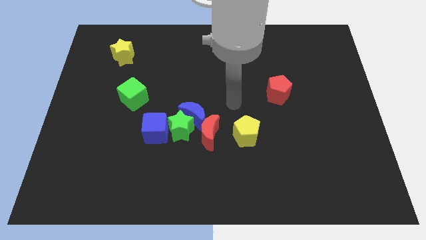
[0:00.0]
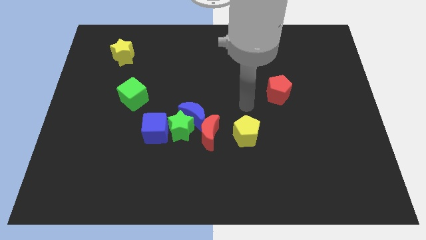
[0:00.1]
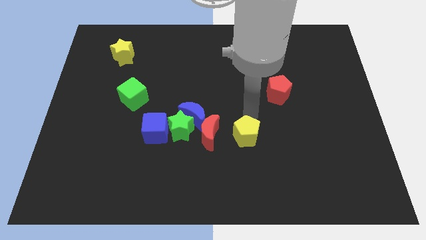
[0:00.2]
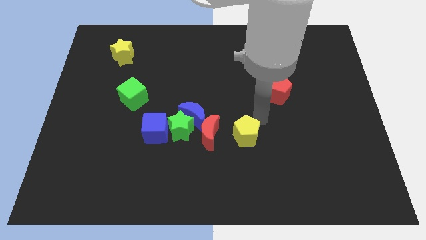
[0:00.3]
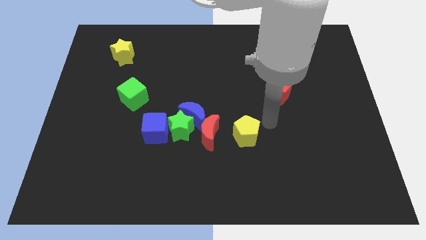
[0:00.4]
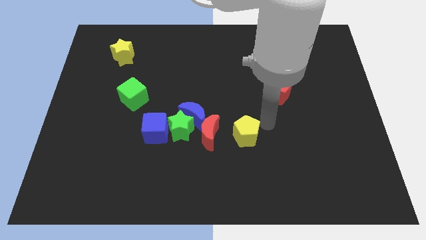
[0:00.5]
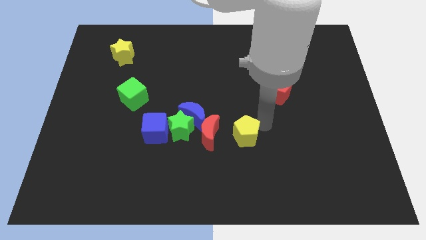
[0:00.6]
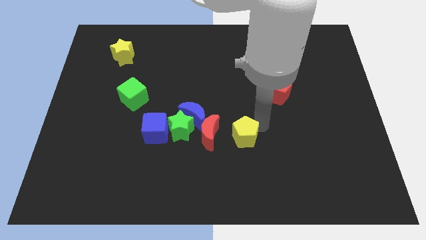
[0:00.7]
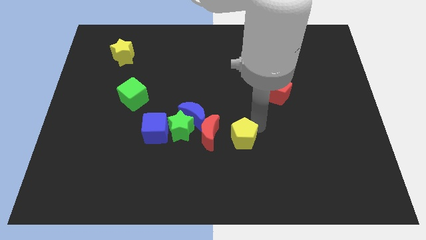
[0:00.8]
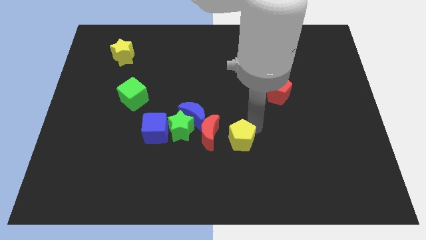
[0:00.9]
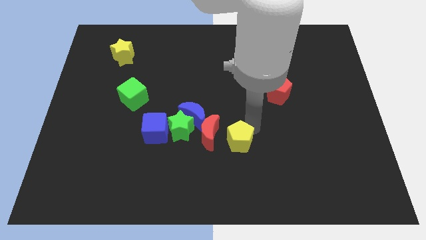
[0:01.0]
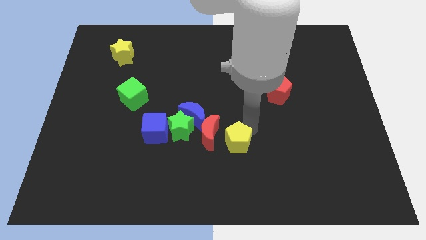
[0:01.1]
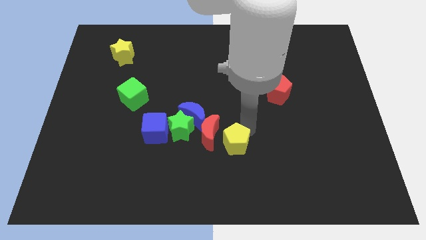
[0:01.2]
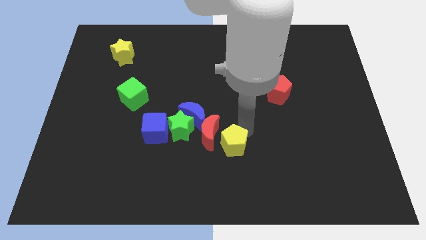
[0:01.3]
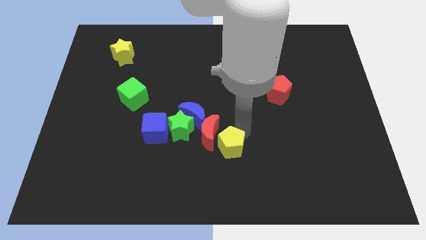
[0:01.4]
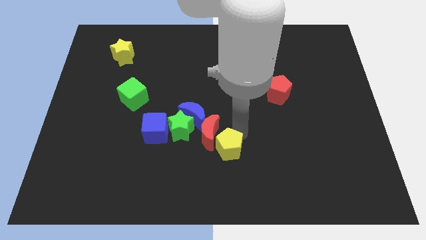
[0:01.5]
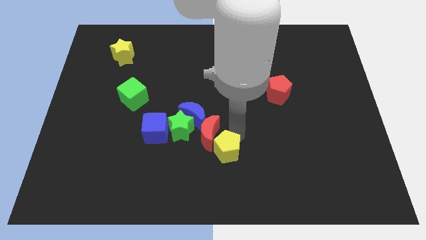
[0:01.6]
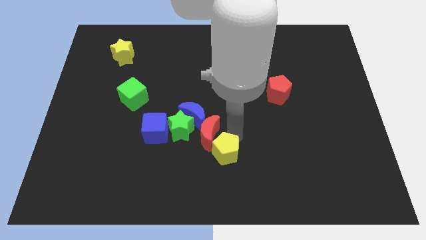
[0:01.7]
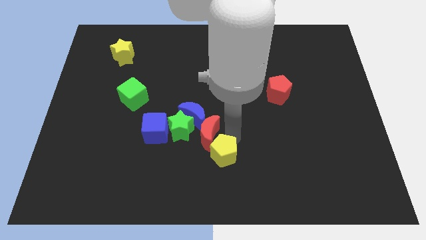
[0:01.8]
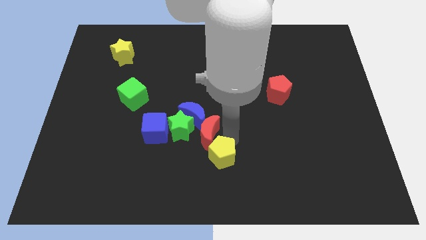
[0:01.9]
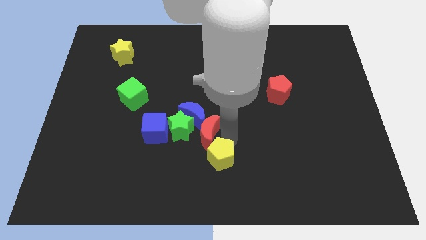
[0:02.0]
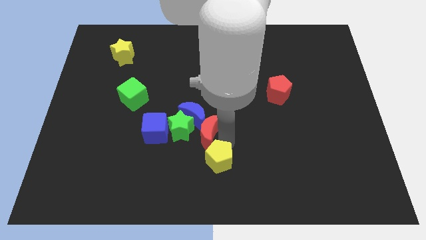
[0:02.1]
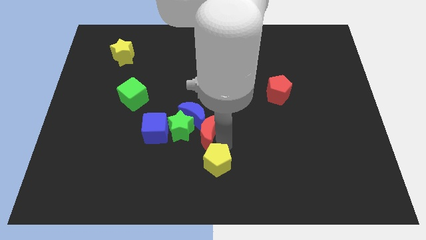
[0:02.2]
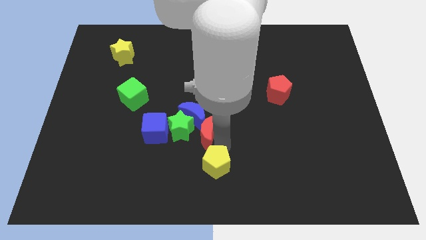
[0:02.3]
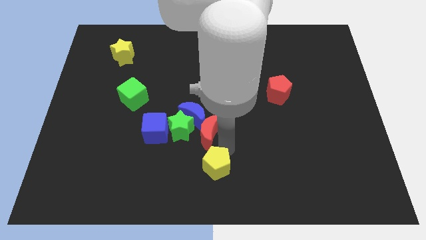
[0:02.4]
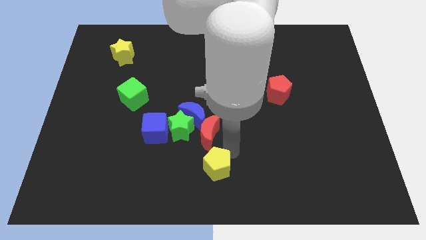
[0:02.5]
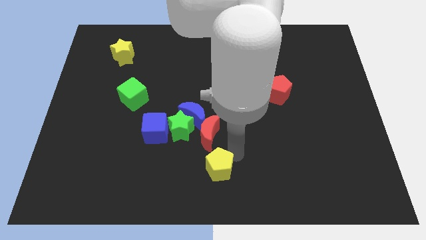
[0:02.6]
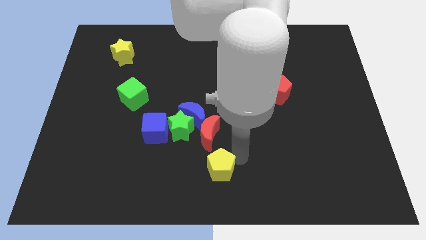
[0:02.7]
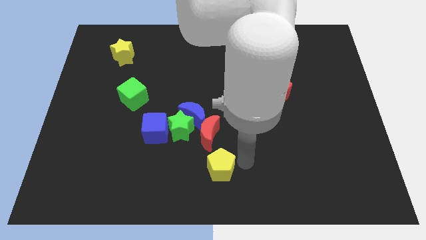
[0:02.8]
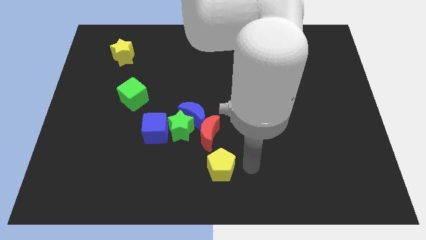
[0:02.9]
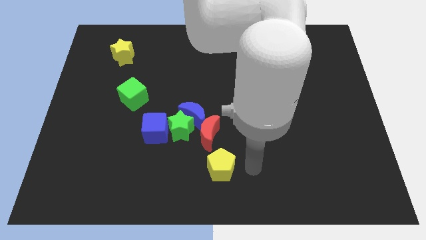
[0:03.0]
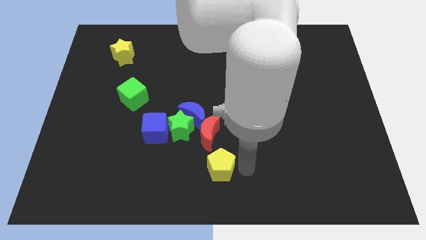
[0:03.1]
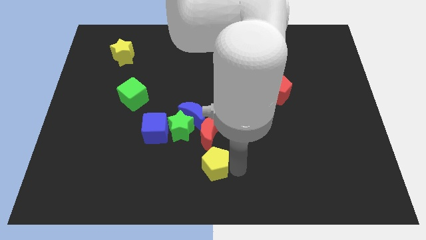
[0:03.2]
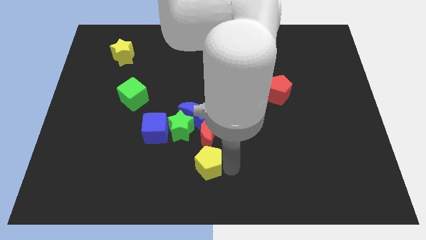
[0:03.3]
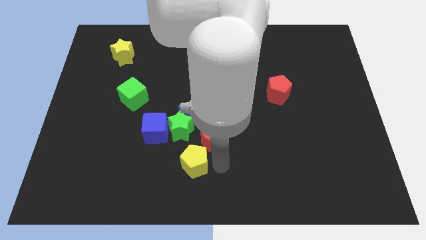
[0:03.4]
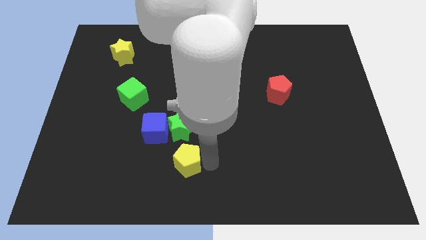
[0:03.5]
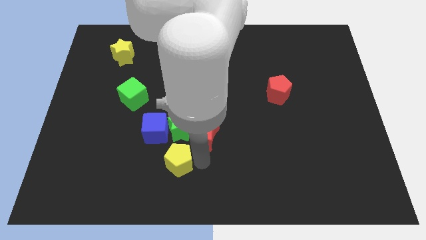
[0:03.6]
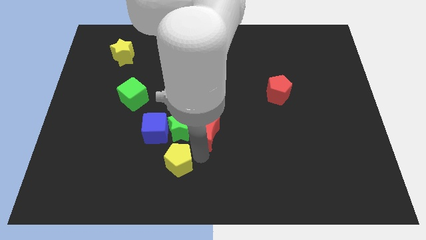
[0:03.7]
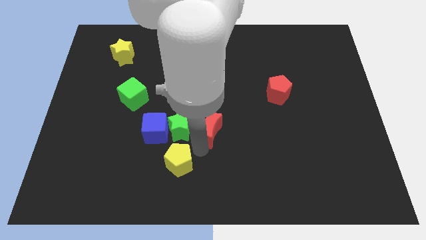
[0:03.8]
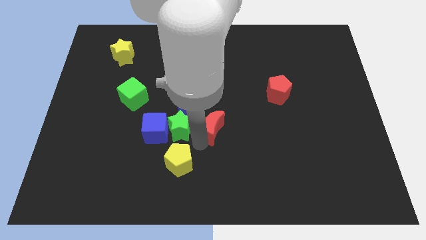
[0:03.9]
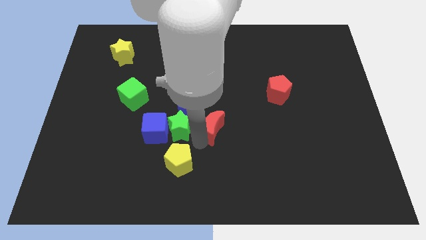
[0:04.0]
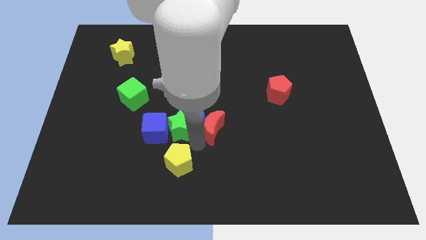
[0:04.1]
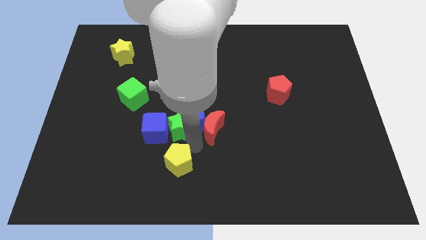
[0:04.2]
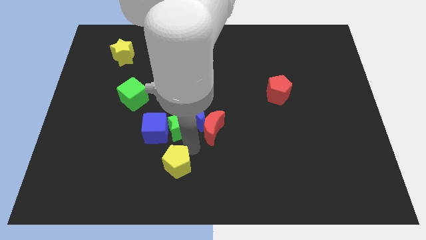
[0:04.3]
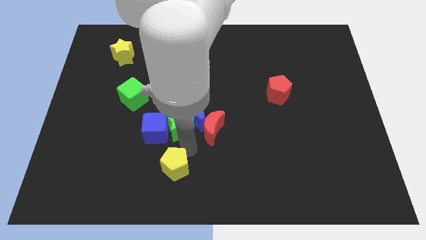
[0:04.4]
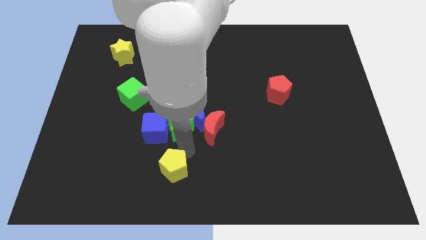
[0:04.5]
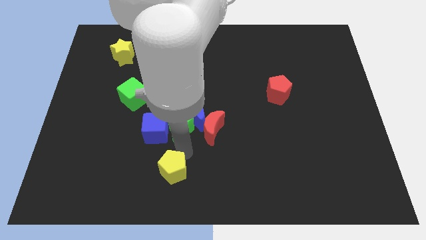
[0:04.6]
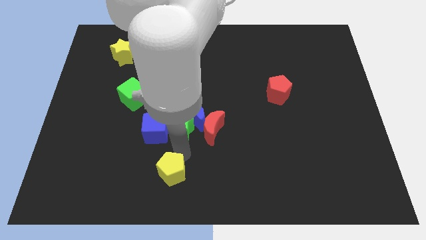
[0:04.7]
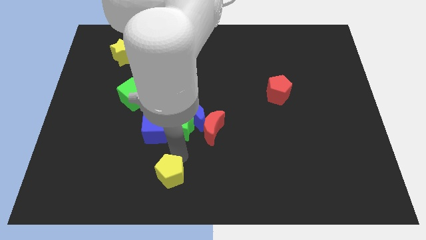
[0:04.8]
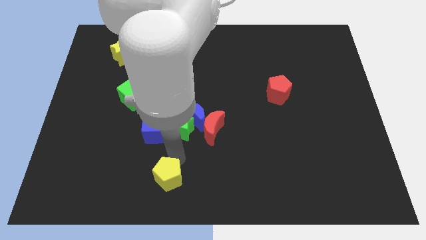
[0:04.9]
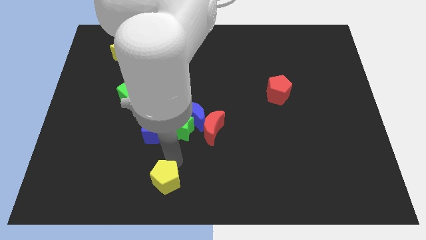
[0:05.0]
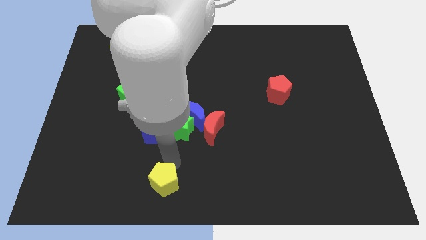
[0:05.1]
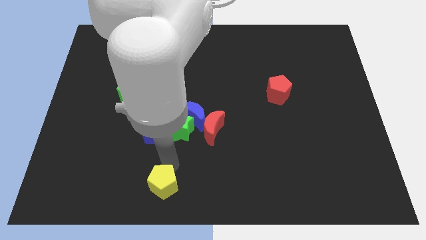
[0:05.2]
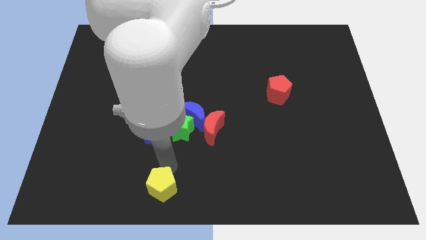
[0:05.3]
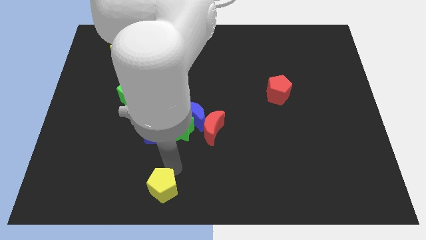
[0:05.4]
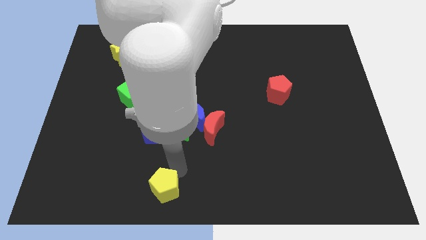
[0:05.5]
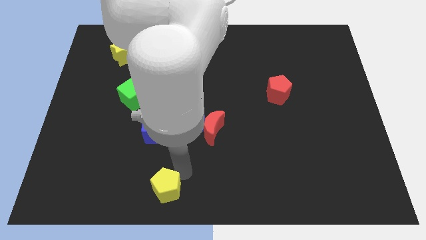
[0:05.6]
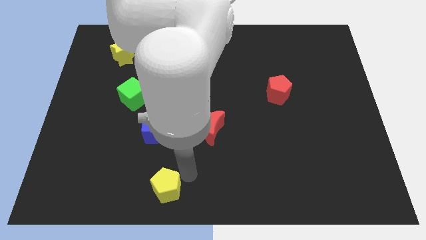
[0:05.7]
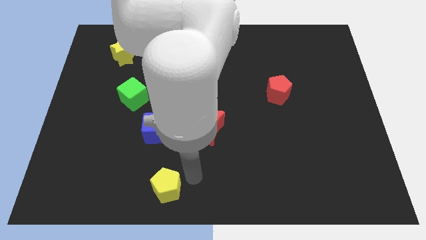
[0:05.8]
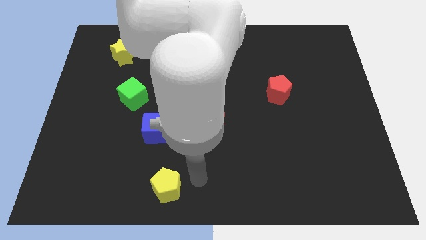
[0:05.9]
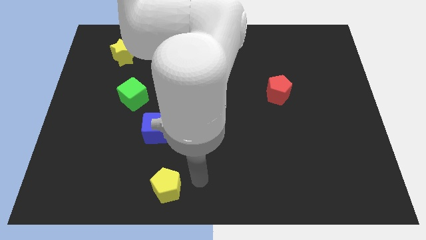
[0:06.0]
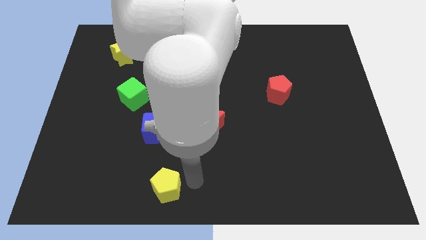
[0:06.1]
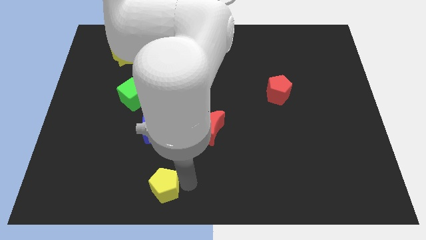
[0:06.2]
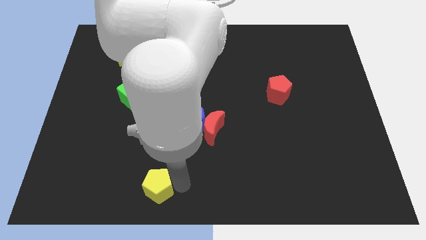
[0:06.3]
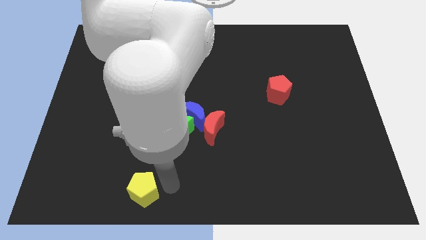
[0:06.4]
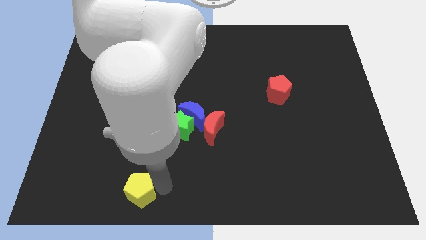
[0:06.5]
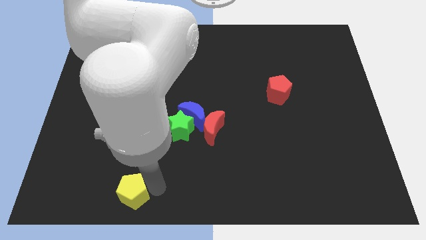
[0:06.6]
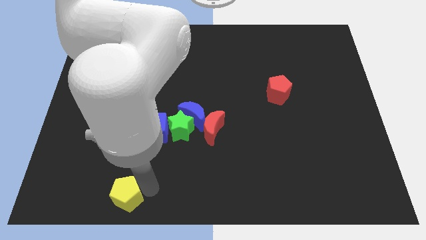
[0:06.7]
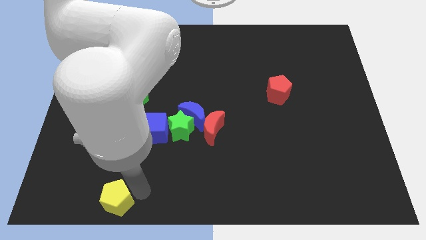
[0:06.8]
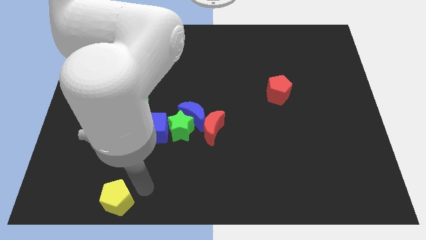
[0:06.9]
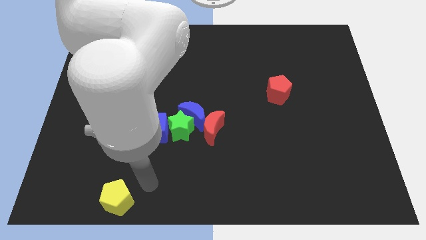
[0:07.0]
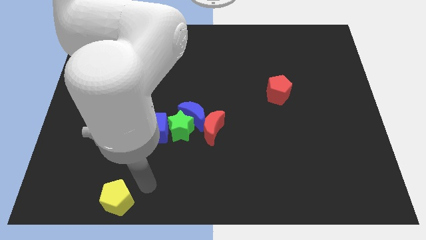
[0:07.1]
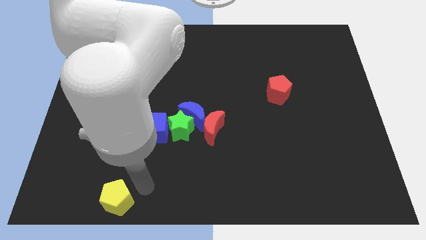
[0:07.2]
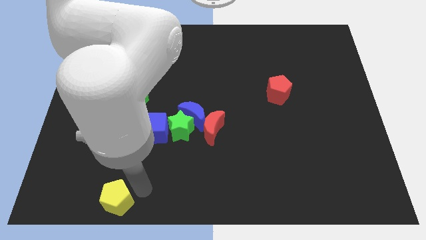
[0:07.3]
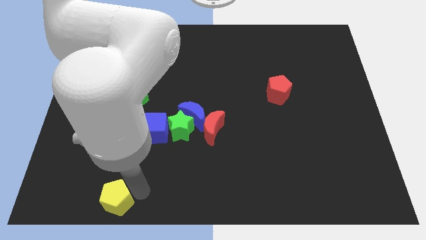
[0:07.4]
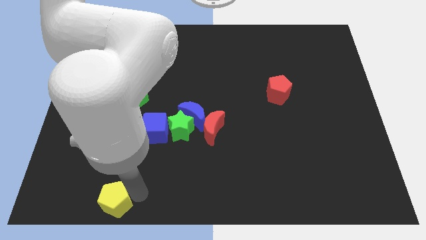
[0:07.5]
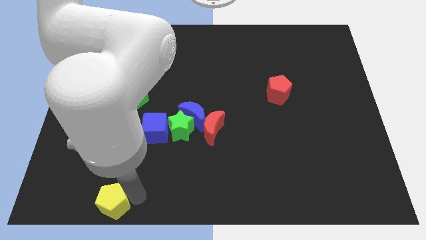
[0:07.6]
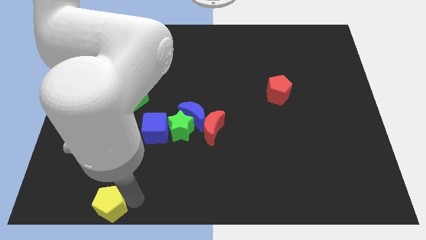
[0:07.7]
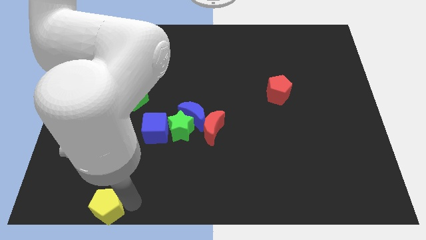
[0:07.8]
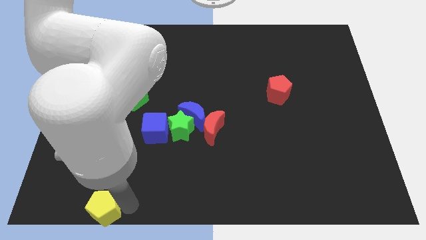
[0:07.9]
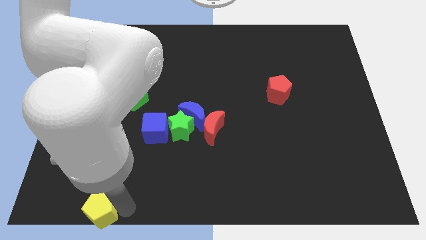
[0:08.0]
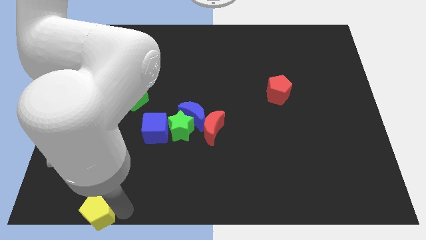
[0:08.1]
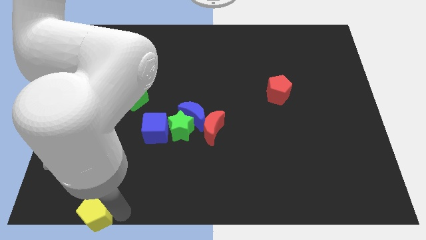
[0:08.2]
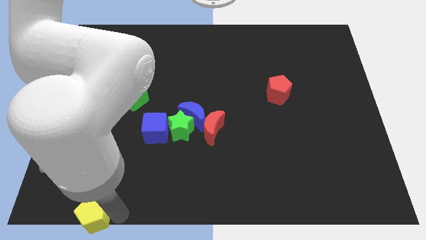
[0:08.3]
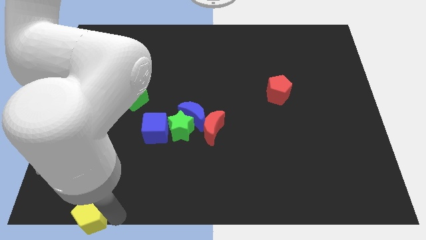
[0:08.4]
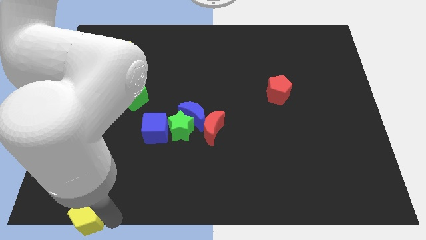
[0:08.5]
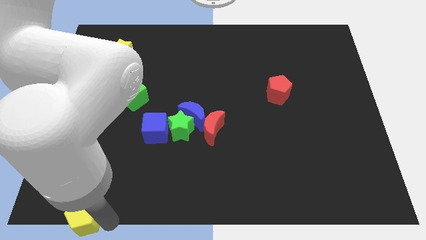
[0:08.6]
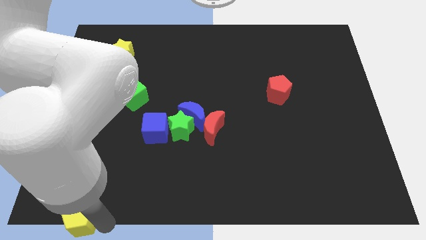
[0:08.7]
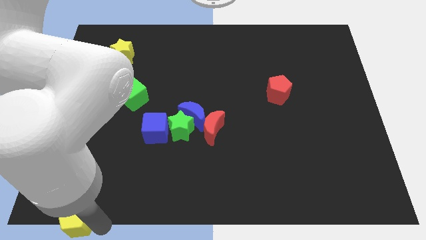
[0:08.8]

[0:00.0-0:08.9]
move the yellow pentagon to the bottom left of the board
